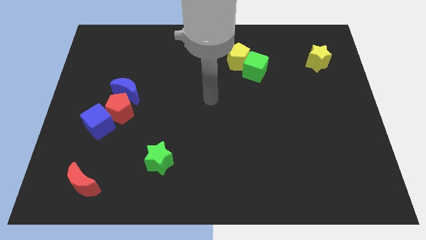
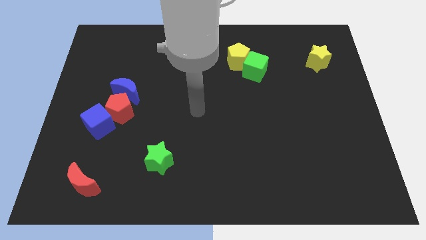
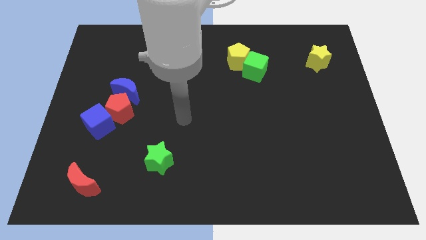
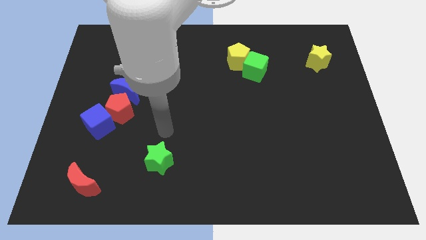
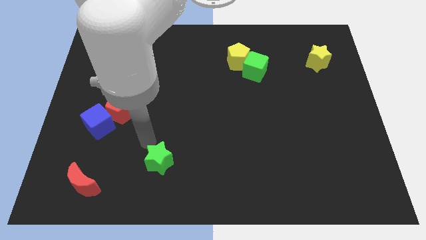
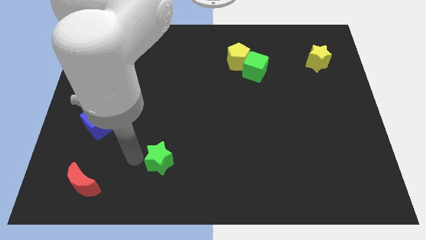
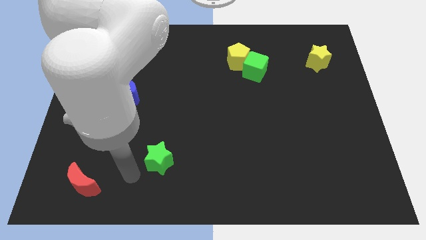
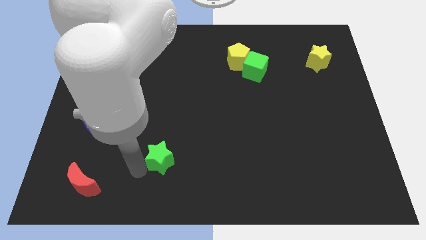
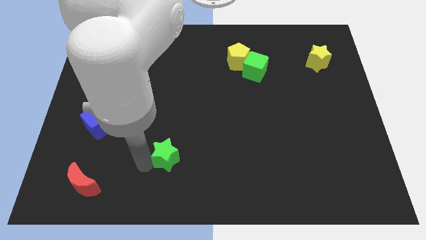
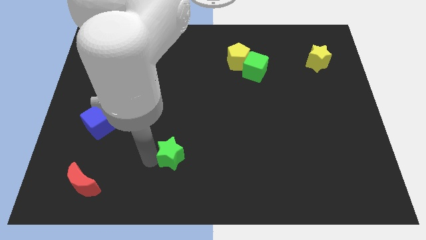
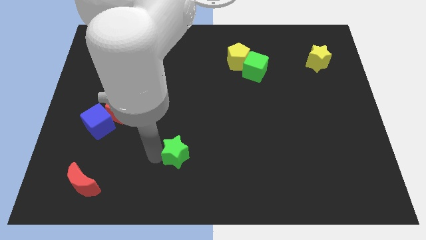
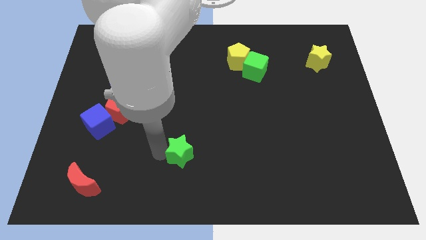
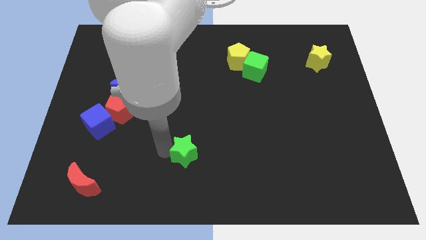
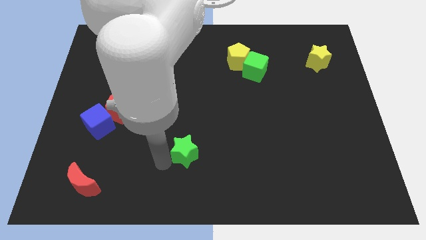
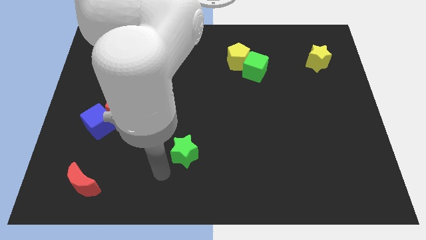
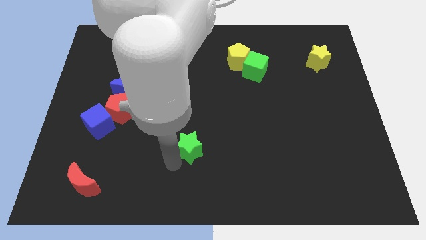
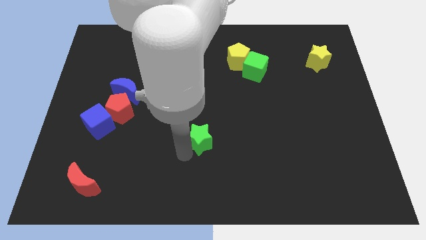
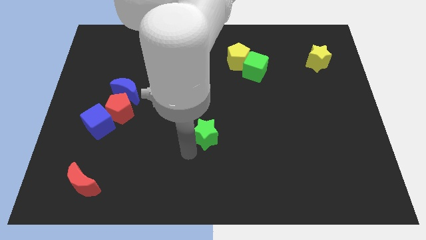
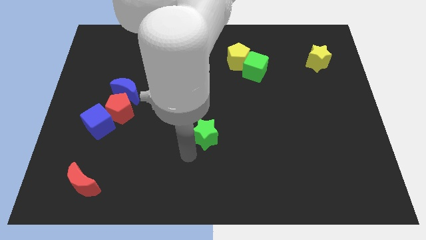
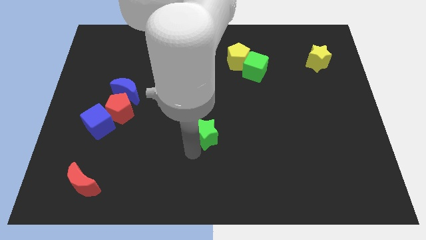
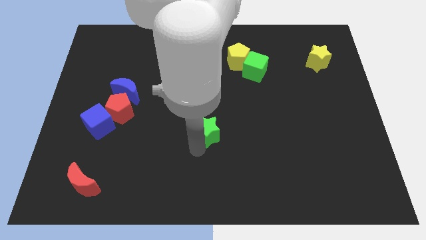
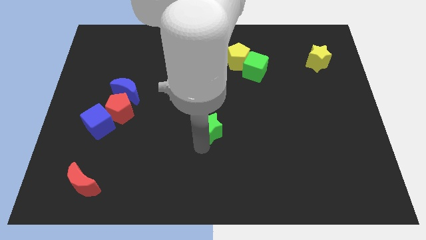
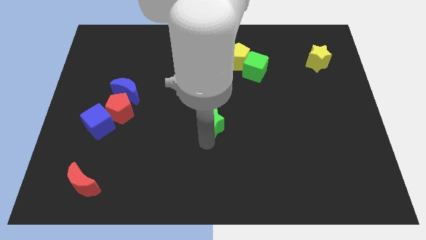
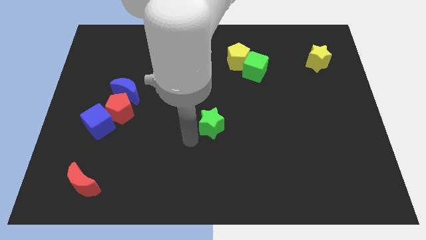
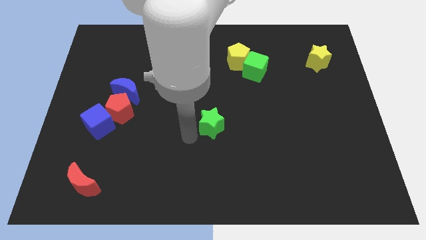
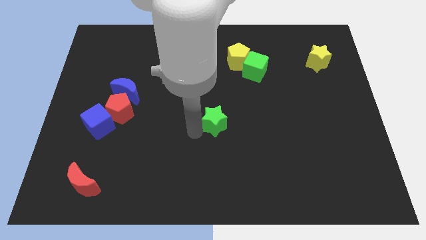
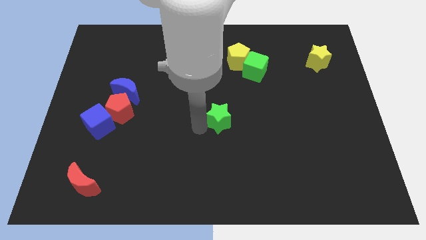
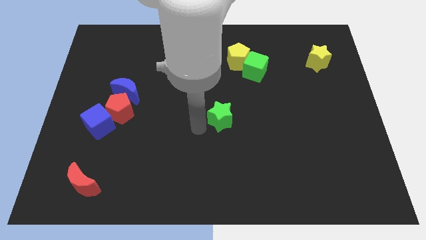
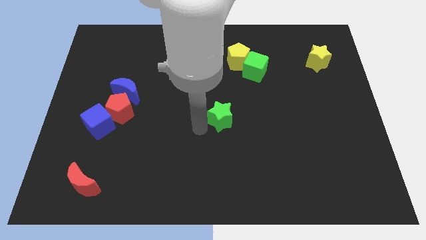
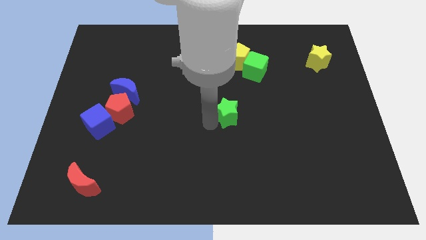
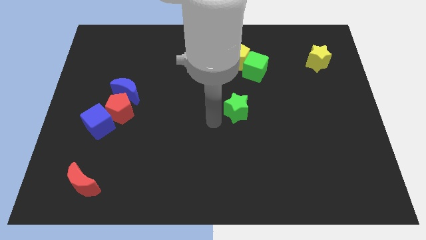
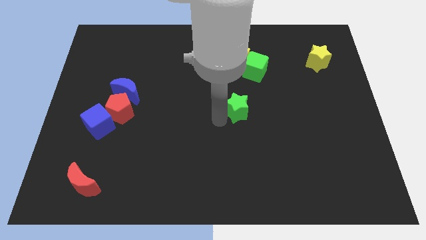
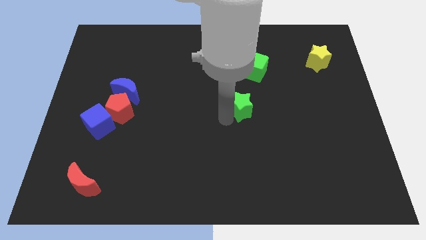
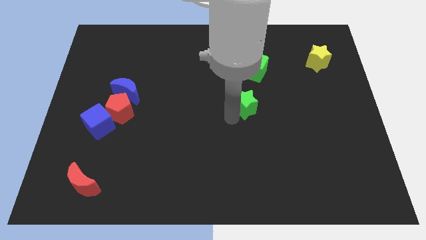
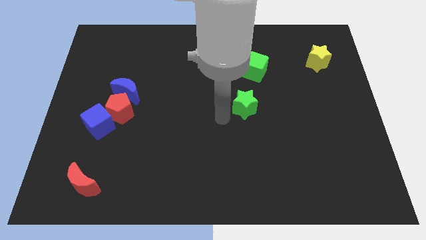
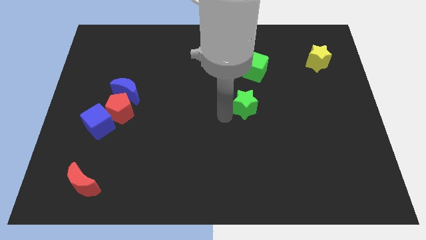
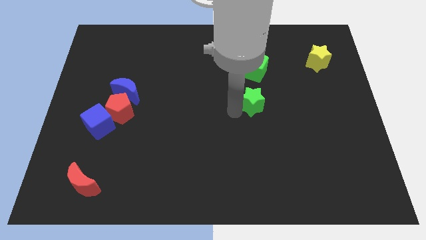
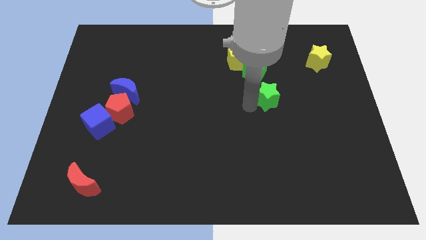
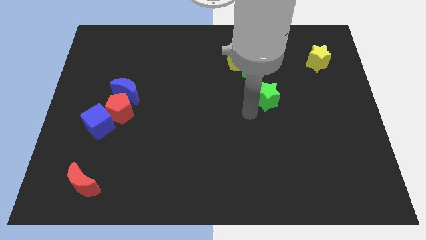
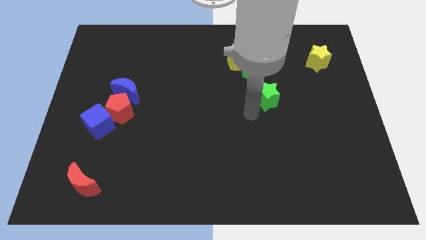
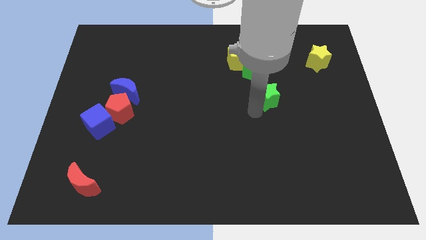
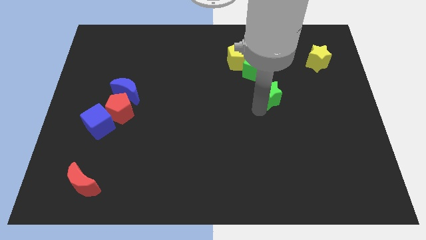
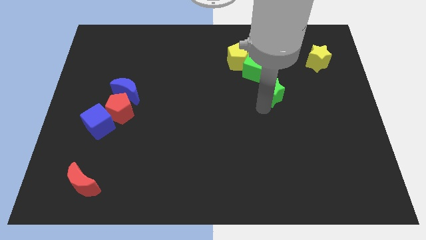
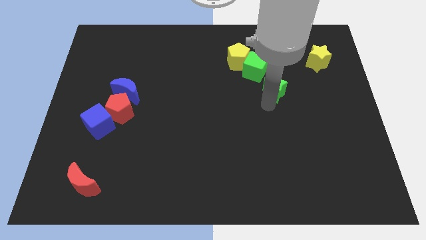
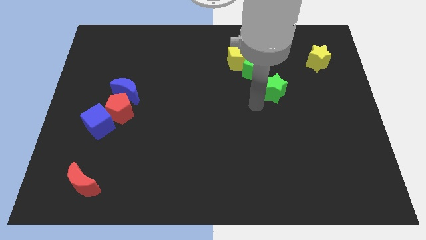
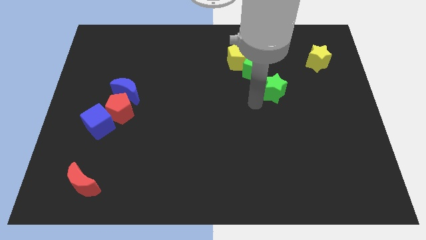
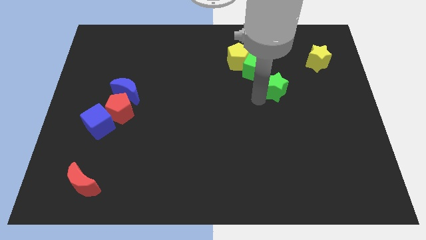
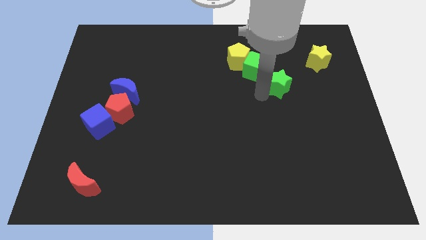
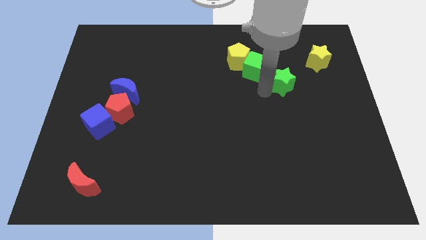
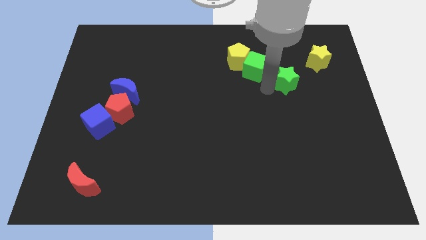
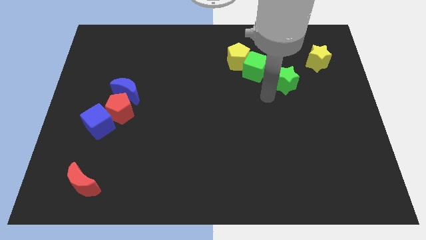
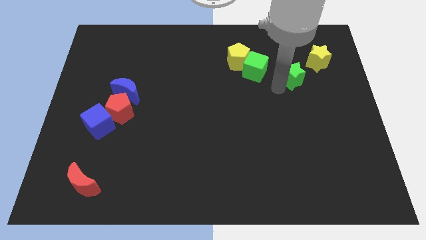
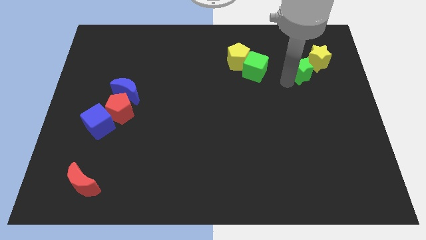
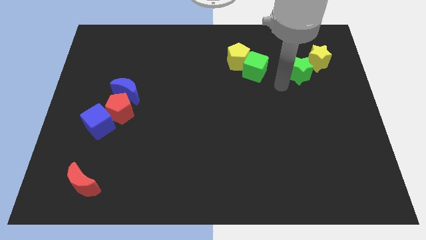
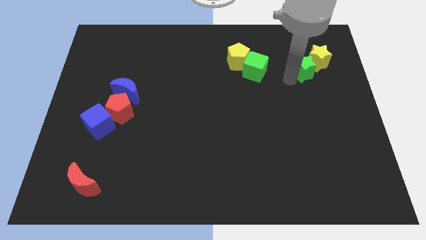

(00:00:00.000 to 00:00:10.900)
slide the green star close to the yellow star

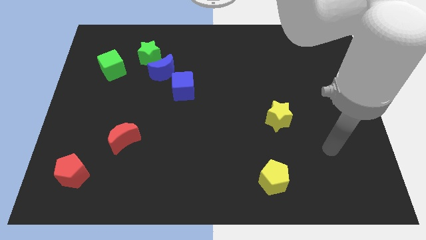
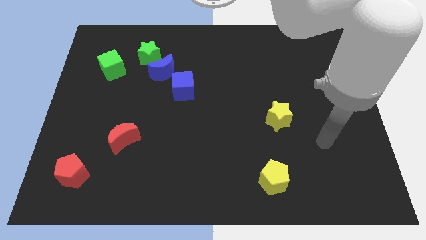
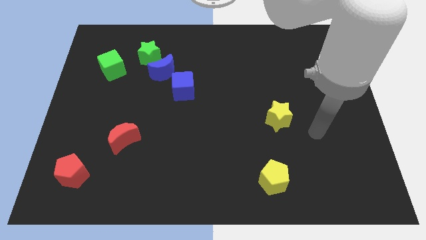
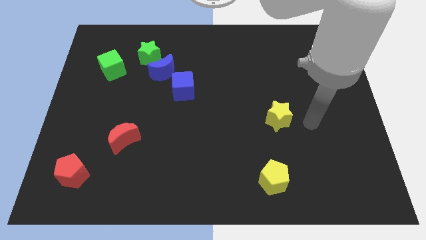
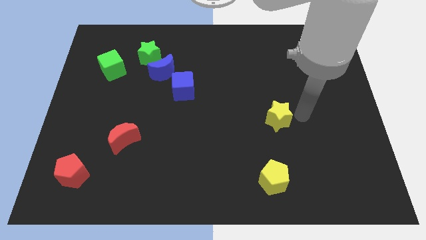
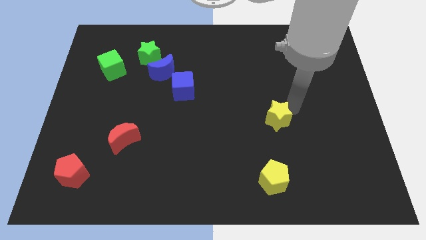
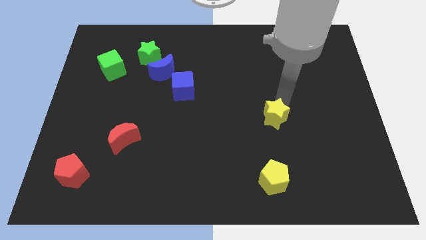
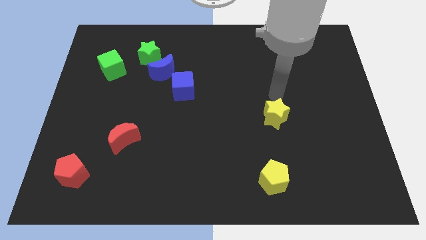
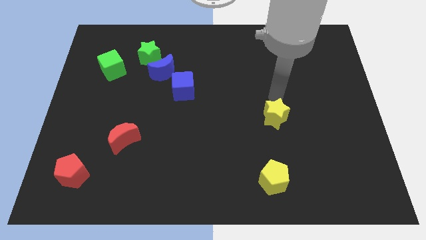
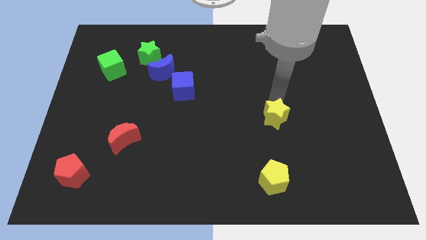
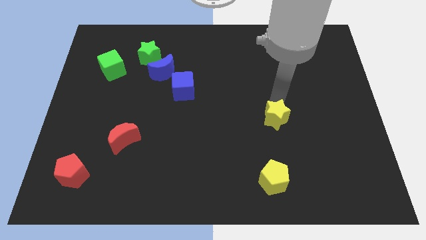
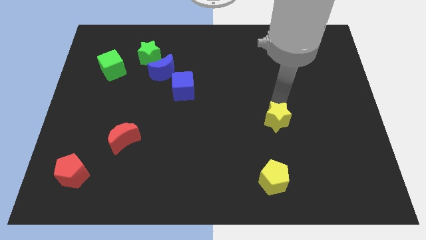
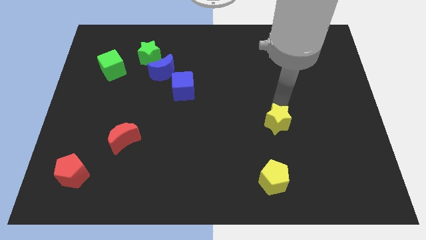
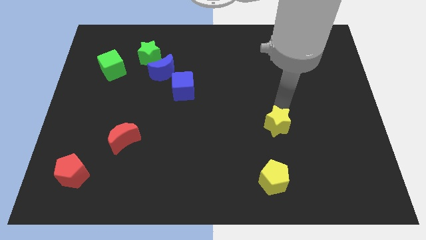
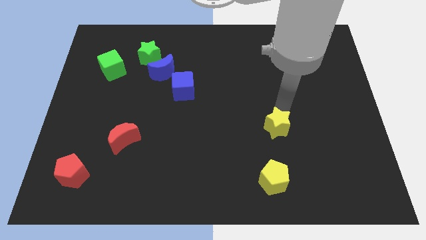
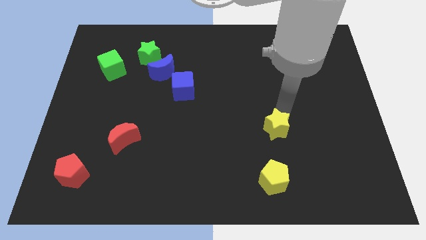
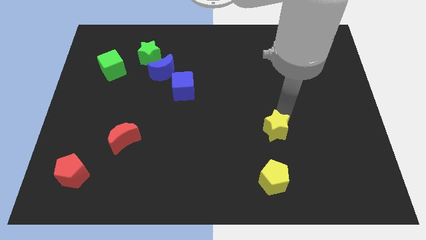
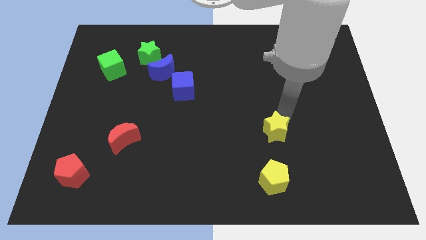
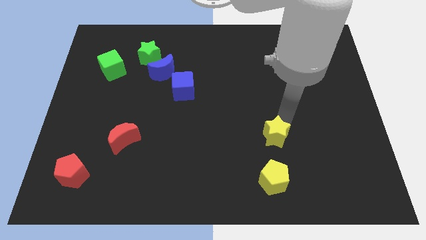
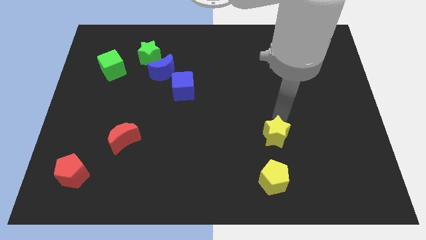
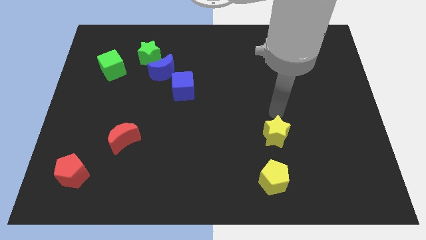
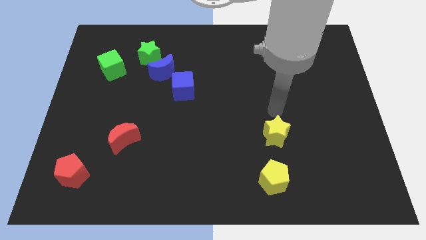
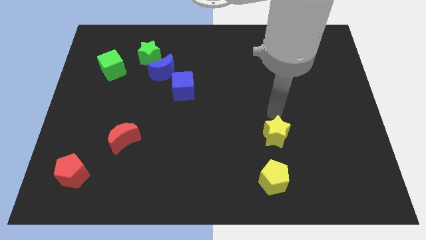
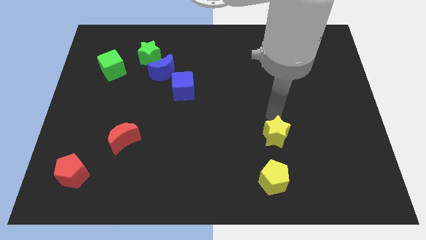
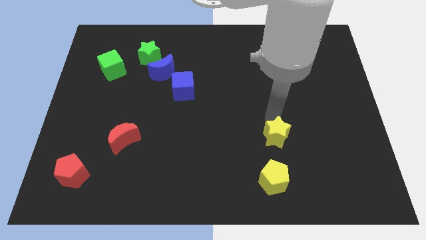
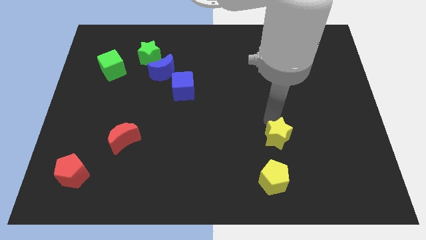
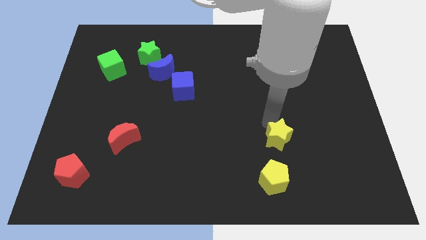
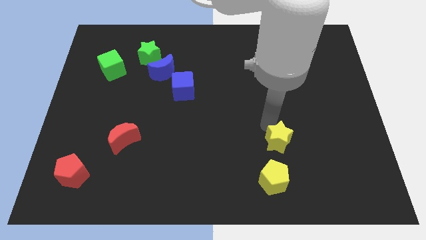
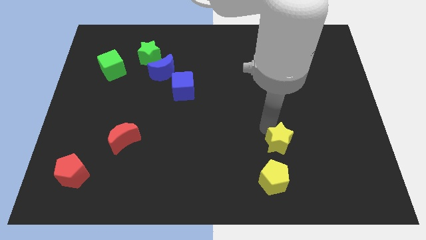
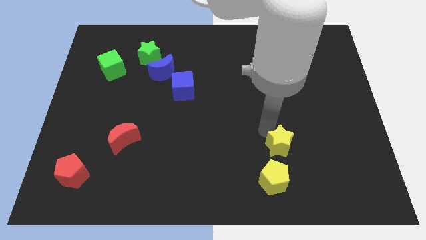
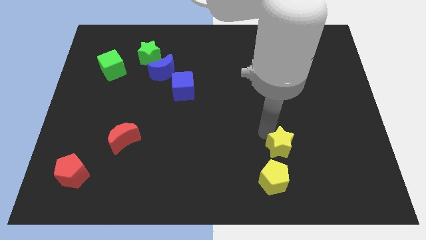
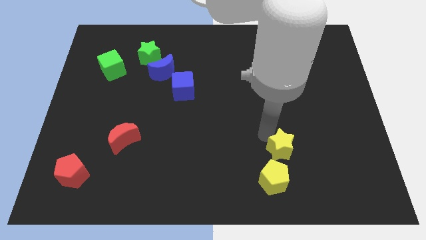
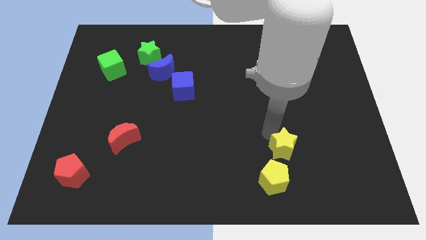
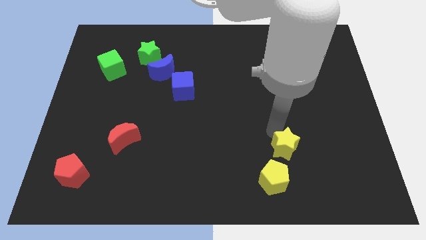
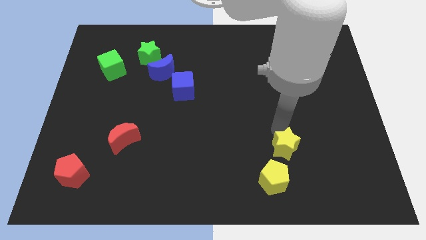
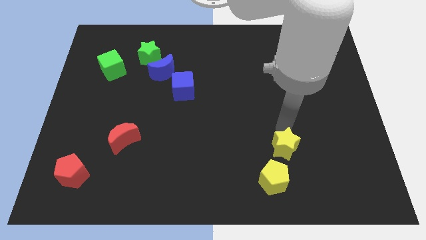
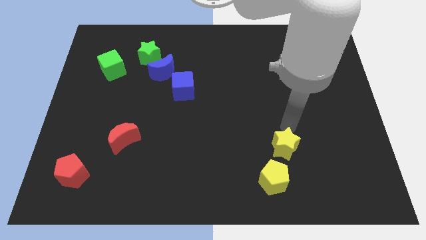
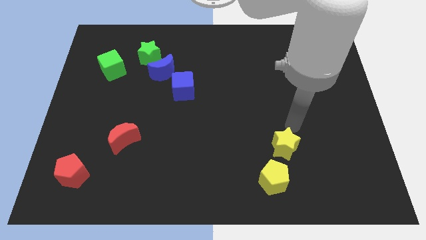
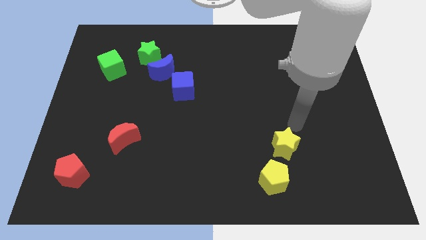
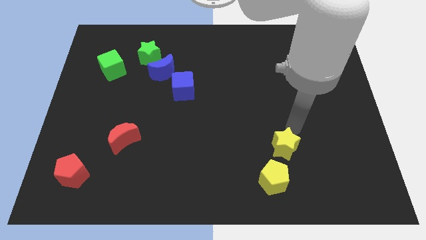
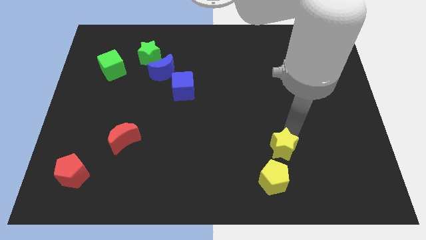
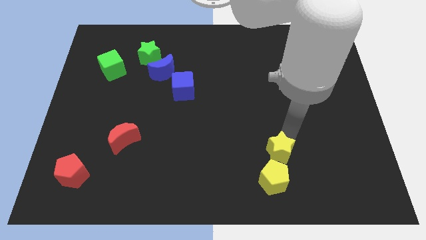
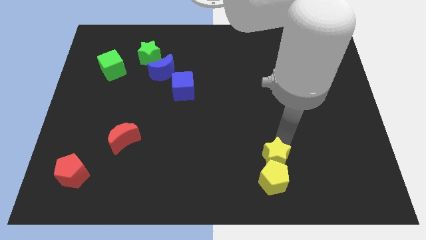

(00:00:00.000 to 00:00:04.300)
slide the yellow star towards the yellow pentagon
